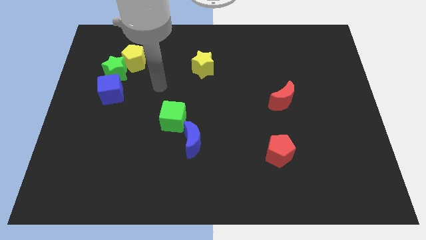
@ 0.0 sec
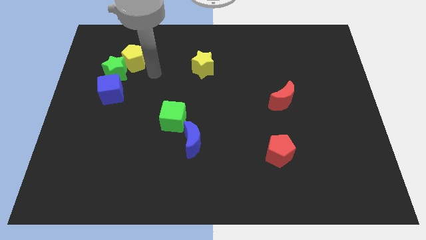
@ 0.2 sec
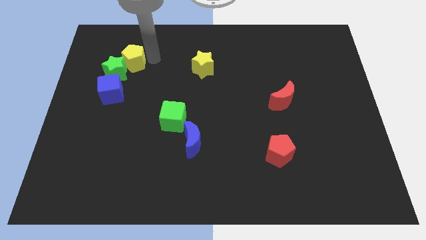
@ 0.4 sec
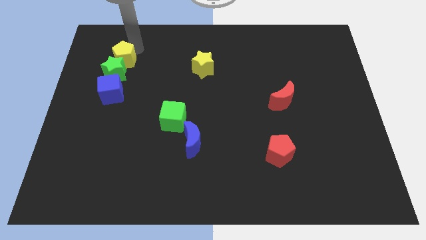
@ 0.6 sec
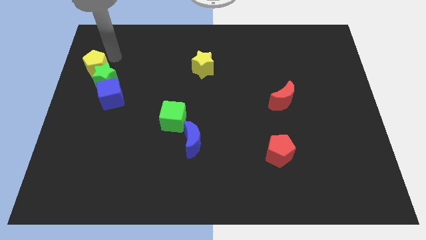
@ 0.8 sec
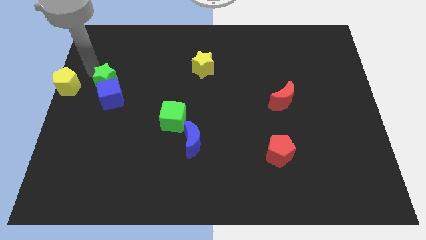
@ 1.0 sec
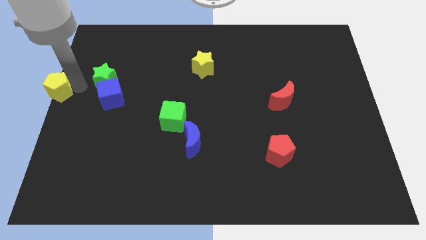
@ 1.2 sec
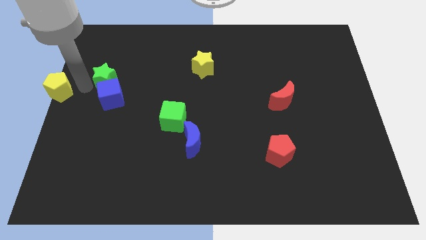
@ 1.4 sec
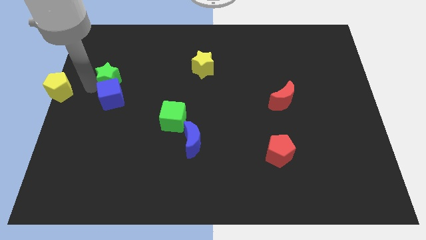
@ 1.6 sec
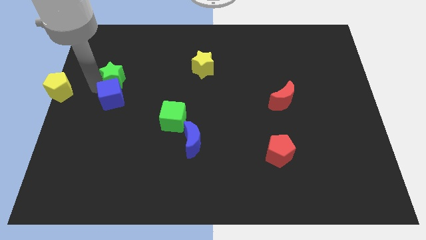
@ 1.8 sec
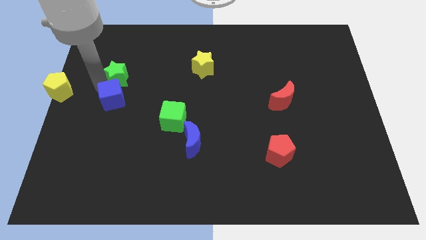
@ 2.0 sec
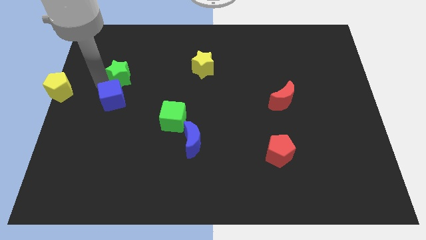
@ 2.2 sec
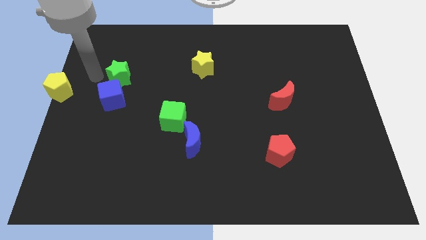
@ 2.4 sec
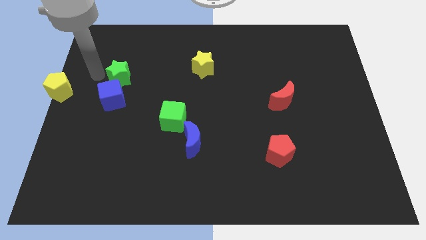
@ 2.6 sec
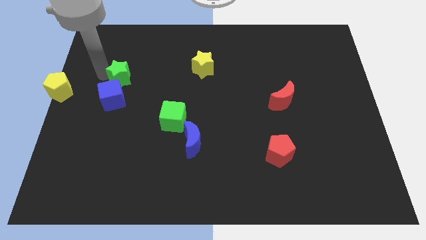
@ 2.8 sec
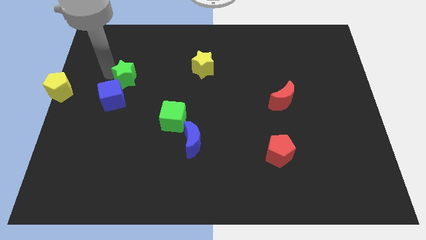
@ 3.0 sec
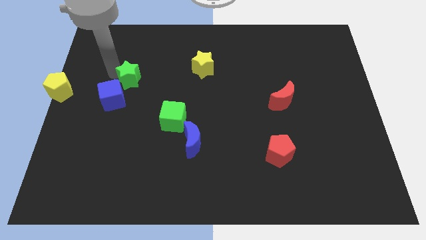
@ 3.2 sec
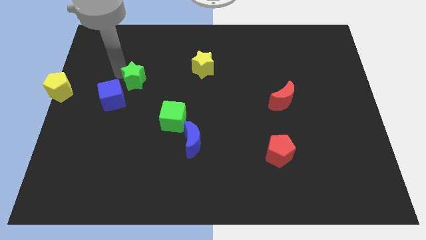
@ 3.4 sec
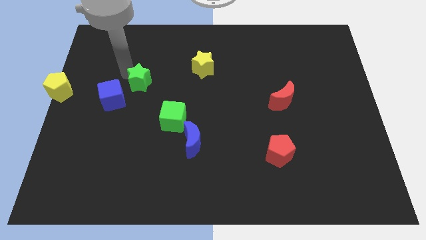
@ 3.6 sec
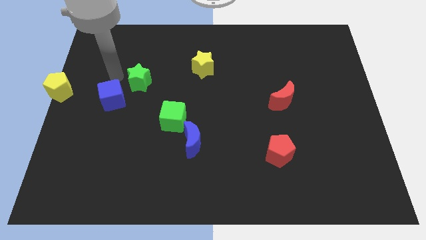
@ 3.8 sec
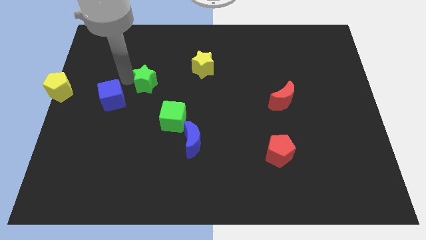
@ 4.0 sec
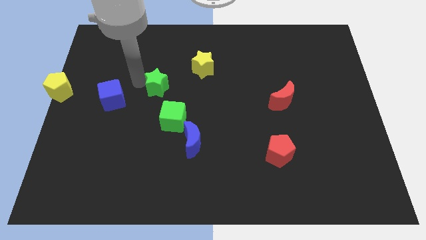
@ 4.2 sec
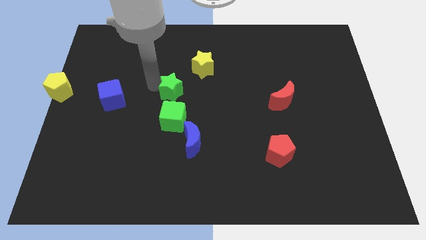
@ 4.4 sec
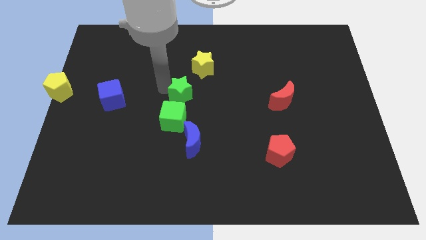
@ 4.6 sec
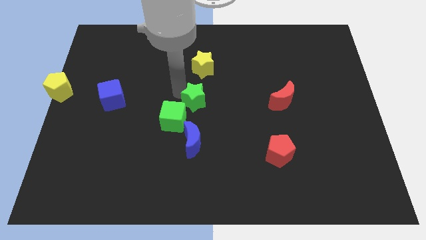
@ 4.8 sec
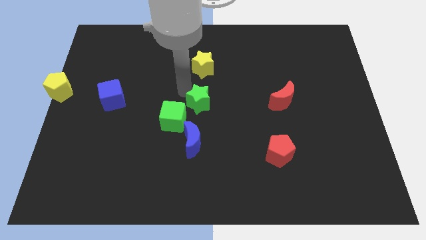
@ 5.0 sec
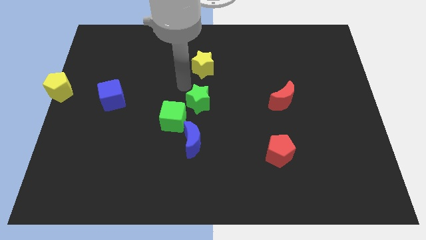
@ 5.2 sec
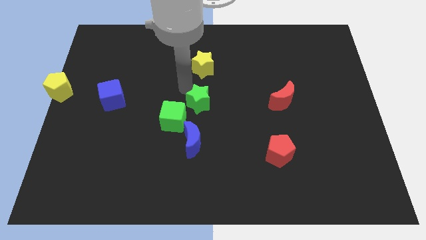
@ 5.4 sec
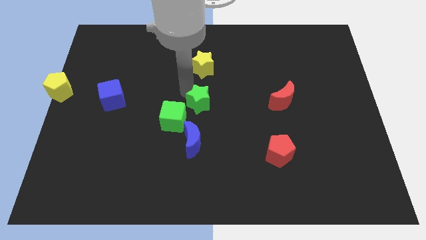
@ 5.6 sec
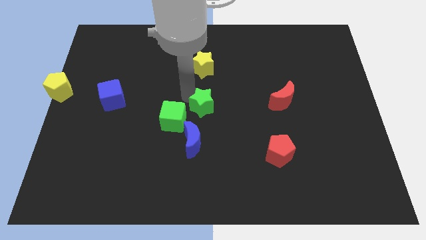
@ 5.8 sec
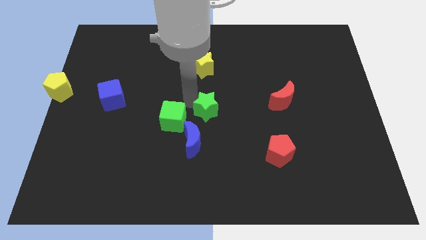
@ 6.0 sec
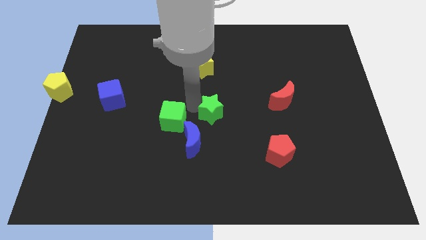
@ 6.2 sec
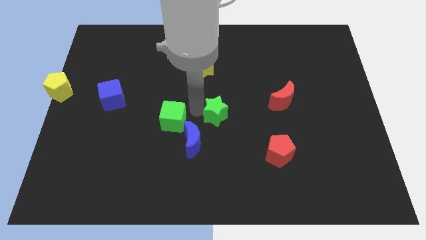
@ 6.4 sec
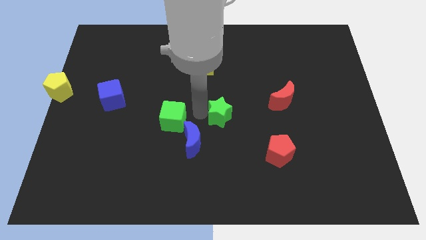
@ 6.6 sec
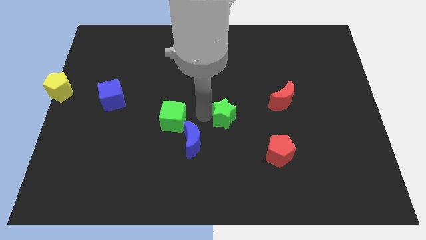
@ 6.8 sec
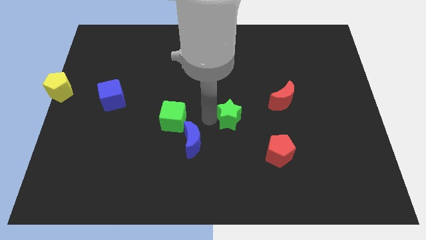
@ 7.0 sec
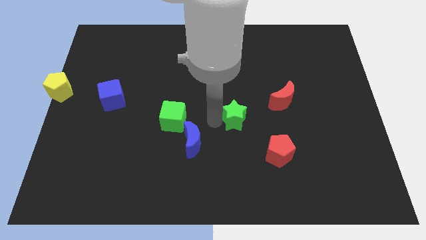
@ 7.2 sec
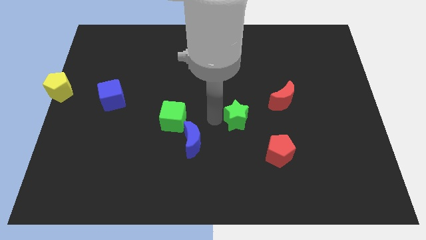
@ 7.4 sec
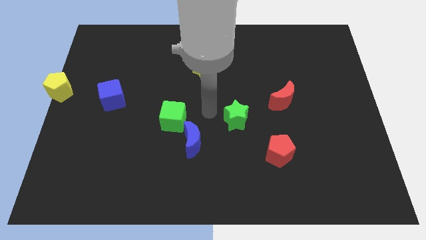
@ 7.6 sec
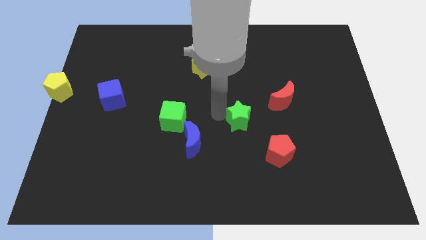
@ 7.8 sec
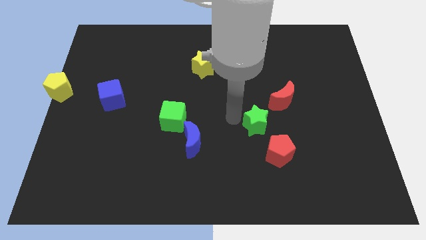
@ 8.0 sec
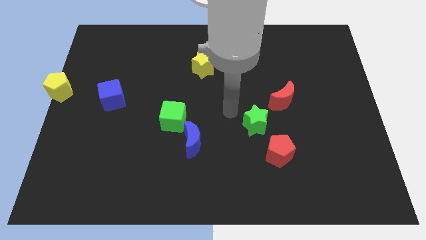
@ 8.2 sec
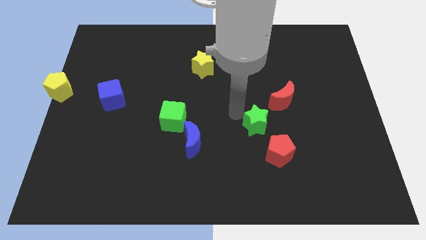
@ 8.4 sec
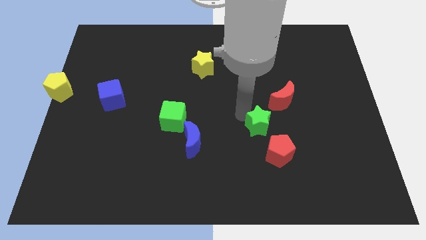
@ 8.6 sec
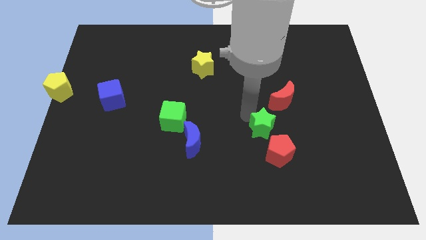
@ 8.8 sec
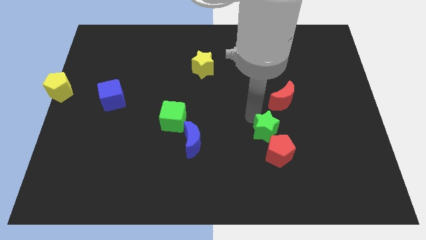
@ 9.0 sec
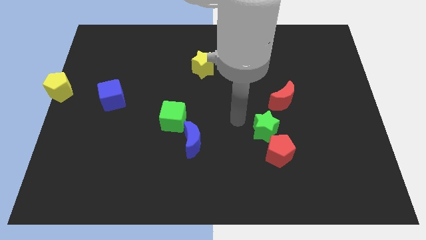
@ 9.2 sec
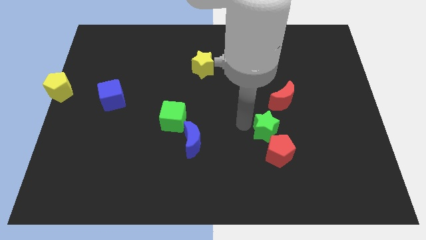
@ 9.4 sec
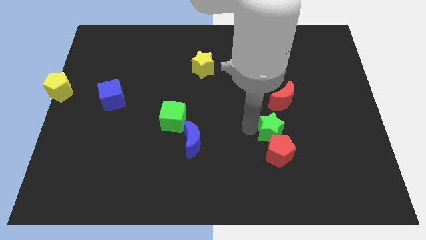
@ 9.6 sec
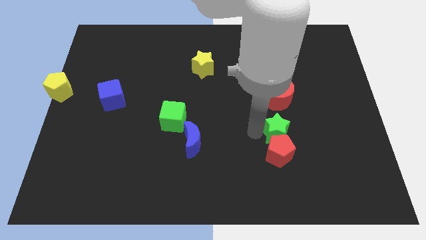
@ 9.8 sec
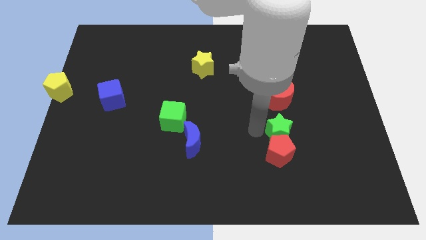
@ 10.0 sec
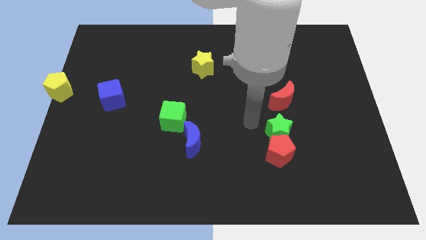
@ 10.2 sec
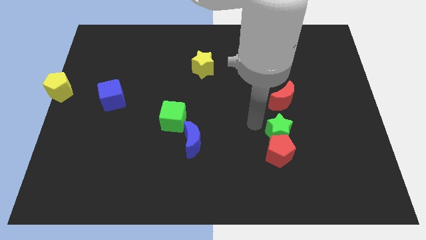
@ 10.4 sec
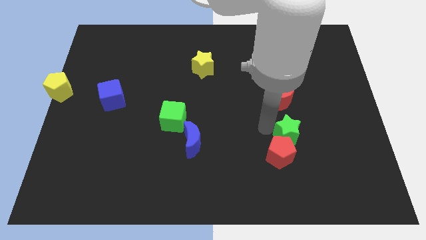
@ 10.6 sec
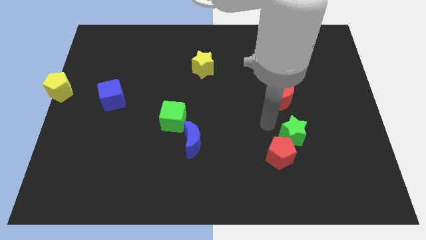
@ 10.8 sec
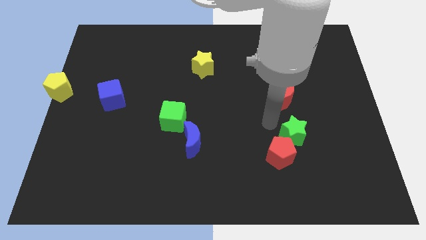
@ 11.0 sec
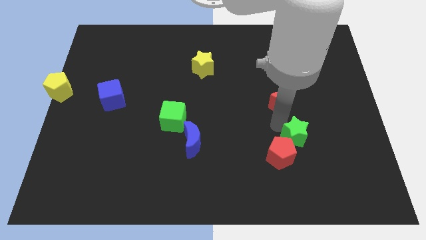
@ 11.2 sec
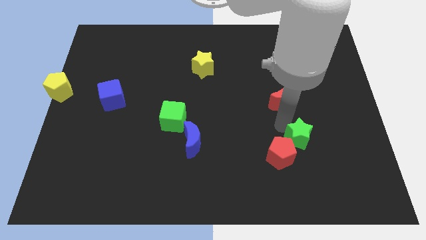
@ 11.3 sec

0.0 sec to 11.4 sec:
put the green star to the right of the red pentagon

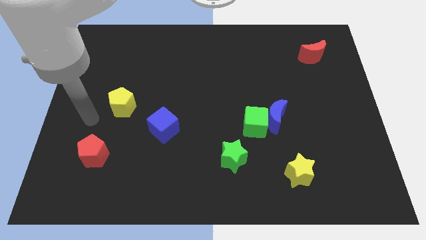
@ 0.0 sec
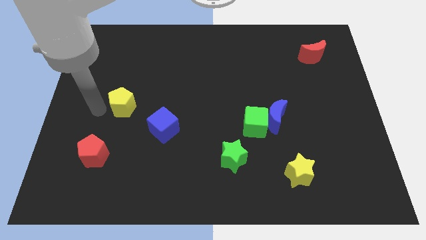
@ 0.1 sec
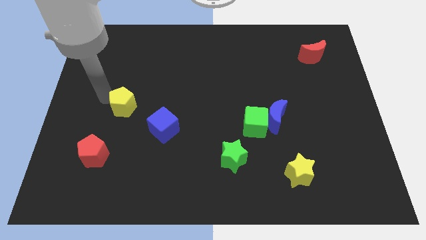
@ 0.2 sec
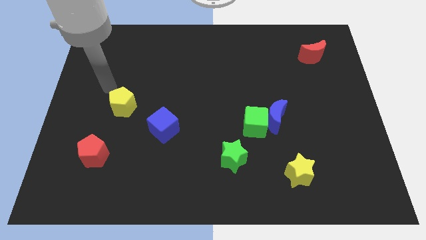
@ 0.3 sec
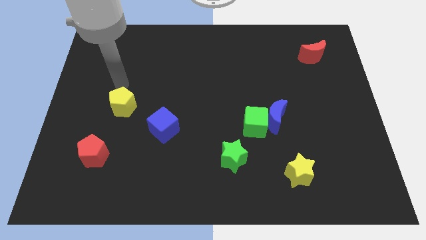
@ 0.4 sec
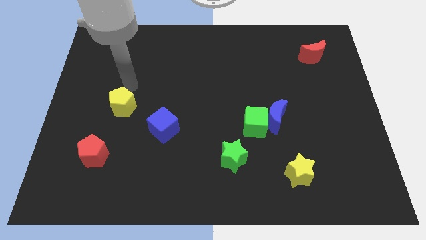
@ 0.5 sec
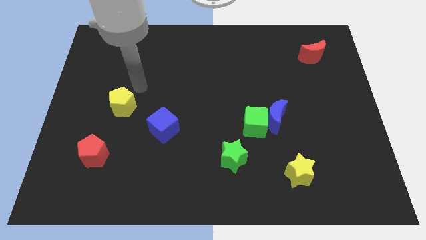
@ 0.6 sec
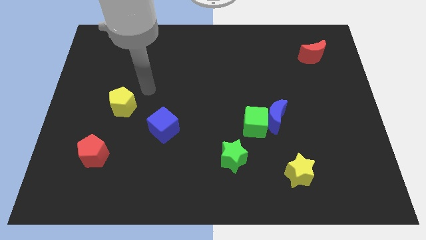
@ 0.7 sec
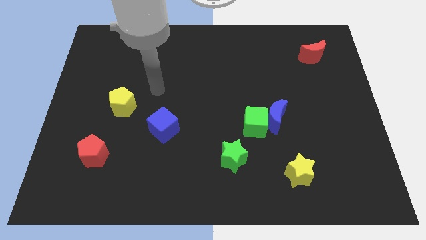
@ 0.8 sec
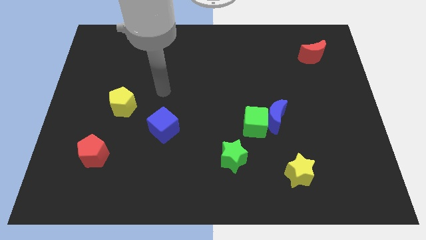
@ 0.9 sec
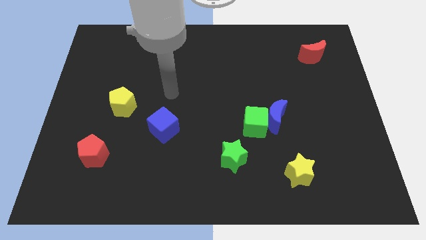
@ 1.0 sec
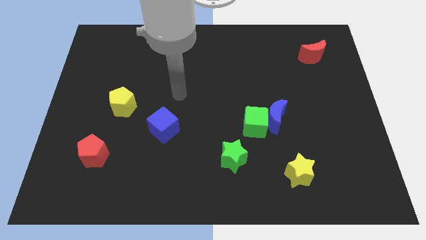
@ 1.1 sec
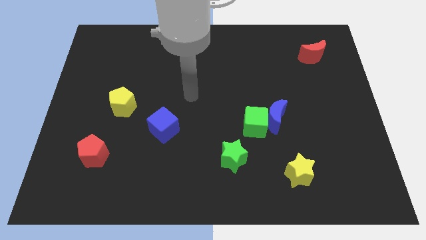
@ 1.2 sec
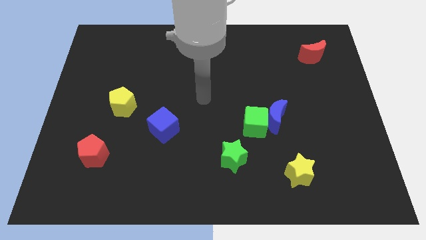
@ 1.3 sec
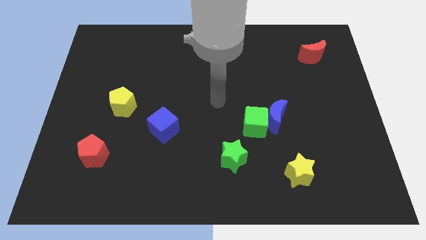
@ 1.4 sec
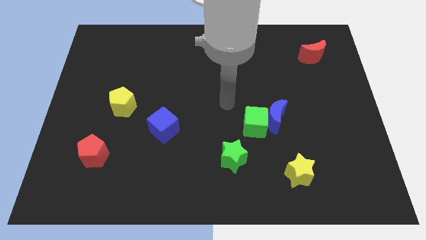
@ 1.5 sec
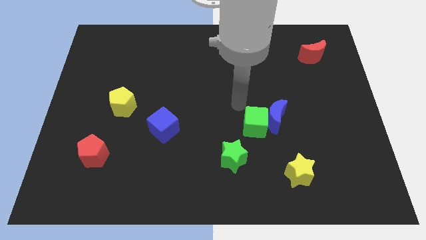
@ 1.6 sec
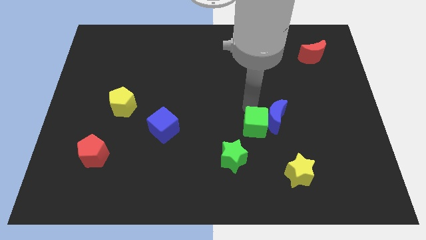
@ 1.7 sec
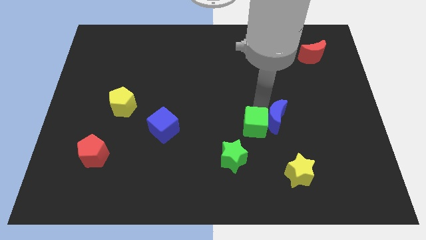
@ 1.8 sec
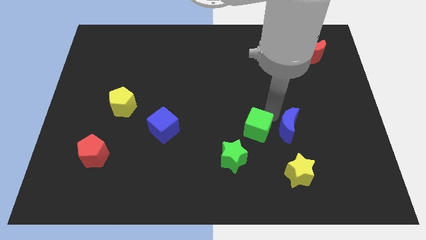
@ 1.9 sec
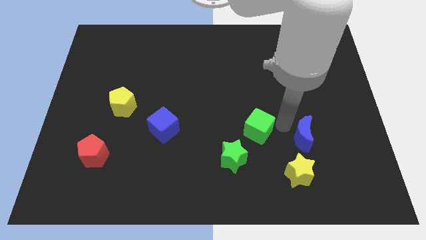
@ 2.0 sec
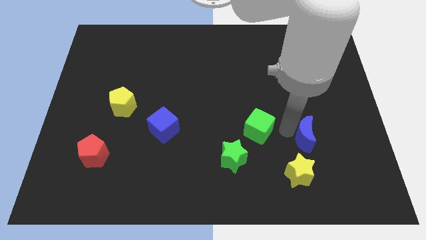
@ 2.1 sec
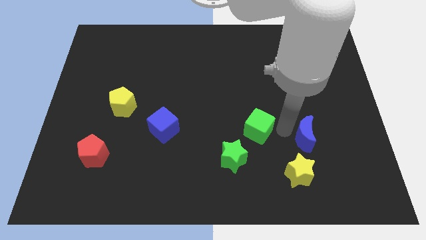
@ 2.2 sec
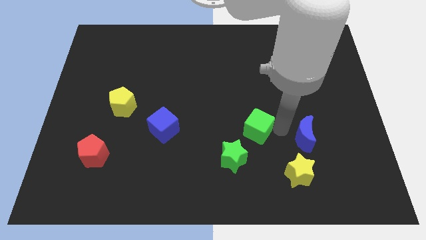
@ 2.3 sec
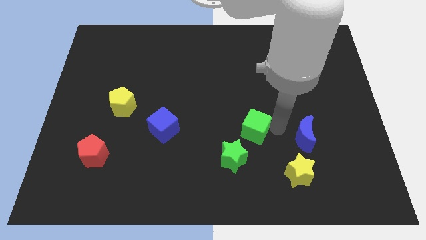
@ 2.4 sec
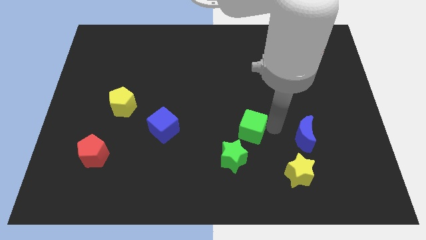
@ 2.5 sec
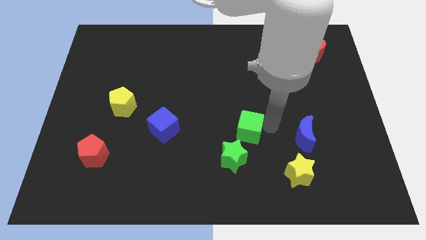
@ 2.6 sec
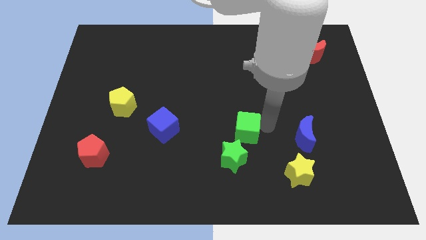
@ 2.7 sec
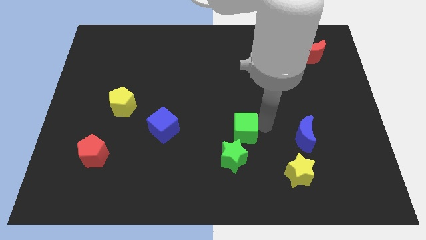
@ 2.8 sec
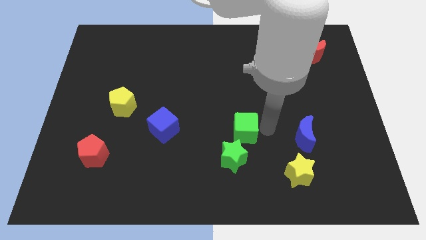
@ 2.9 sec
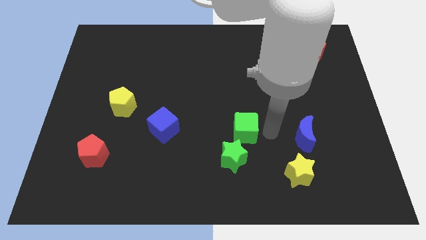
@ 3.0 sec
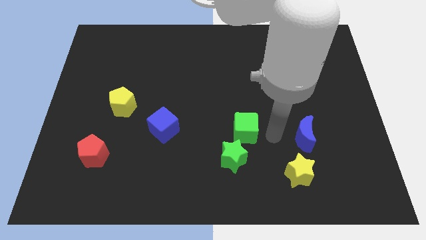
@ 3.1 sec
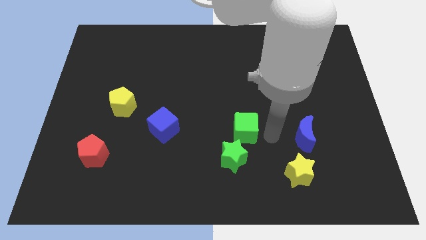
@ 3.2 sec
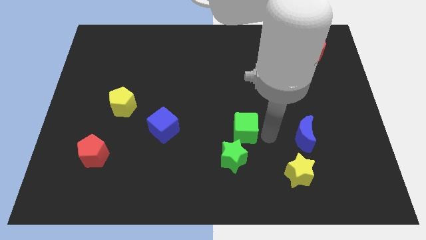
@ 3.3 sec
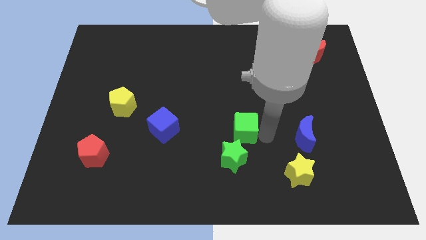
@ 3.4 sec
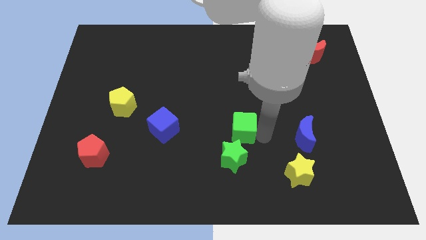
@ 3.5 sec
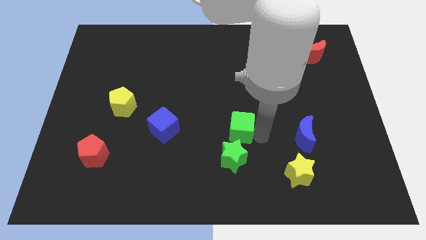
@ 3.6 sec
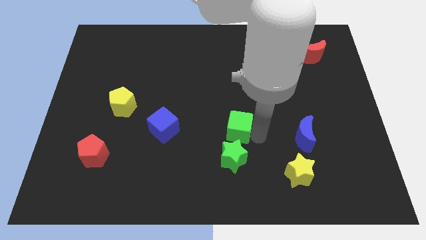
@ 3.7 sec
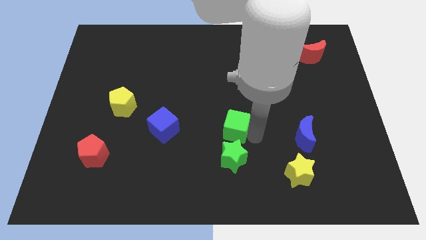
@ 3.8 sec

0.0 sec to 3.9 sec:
slide the green cube right of the blue cube
